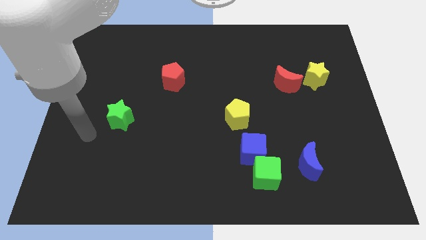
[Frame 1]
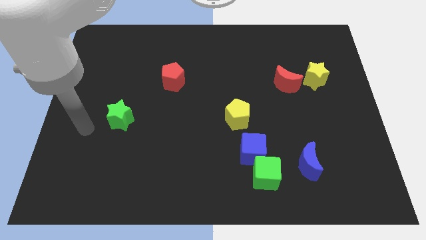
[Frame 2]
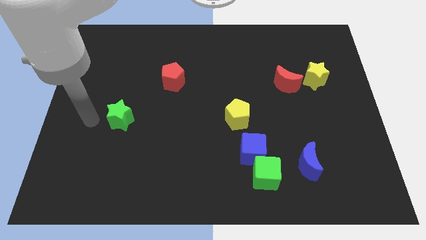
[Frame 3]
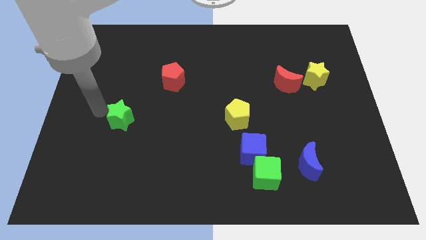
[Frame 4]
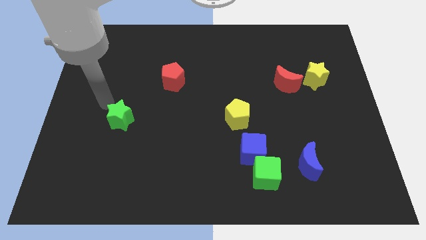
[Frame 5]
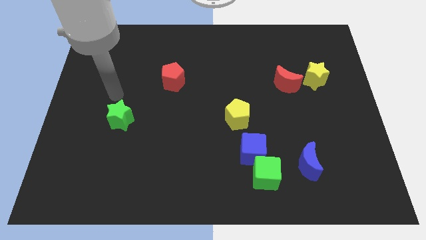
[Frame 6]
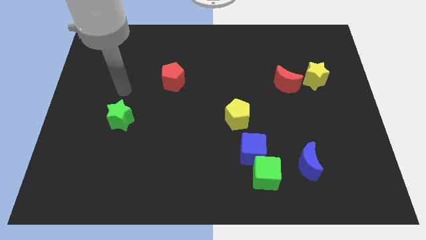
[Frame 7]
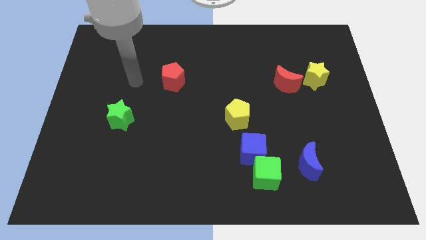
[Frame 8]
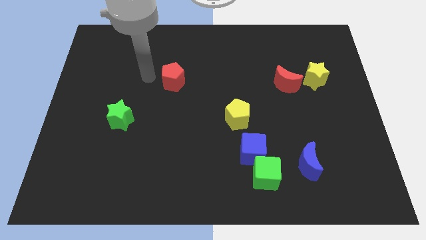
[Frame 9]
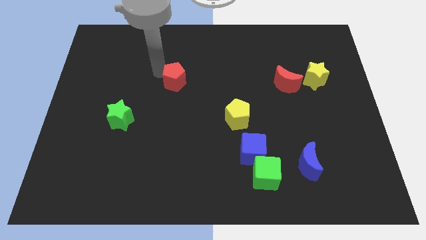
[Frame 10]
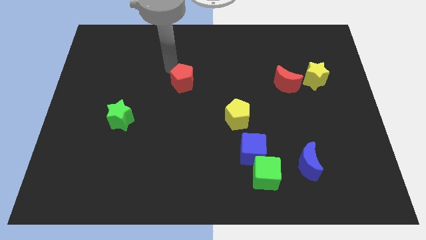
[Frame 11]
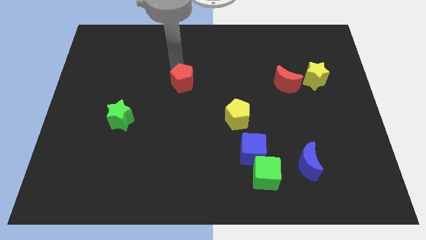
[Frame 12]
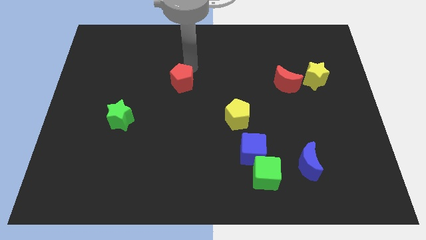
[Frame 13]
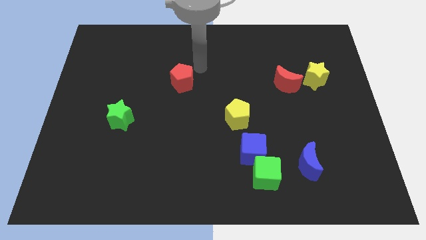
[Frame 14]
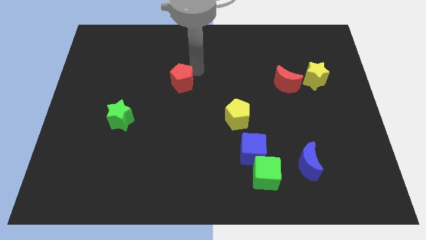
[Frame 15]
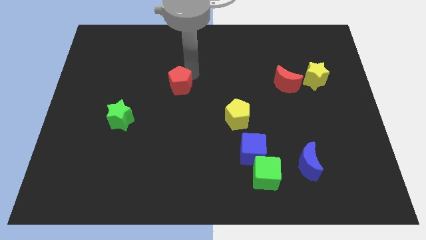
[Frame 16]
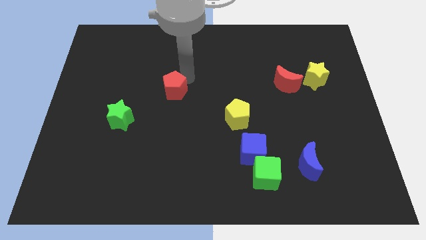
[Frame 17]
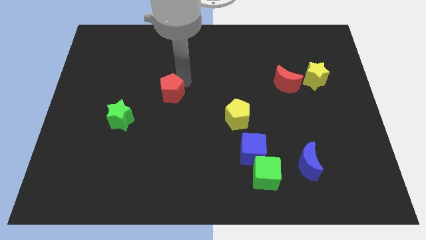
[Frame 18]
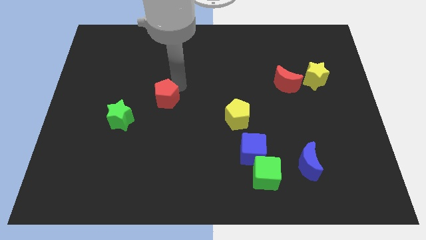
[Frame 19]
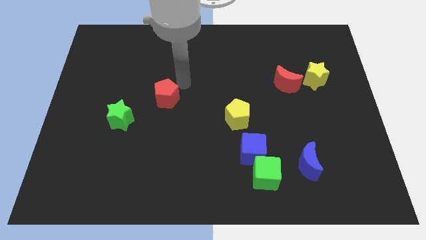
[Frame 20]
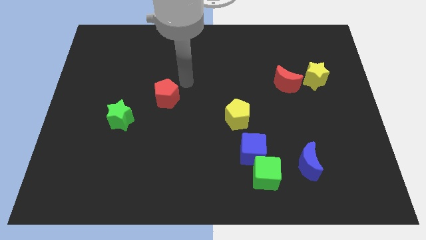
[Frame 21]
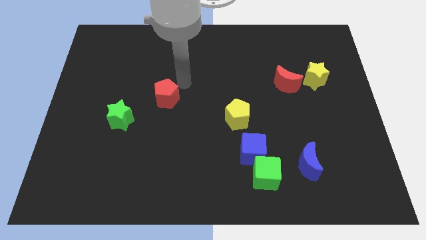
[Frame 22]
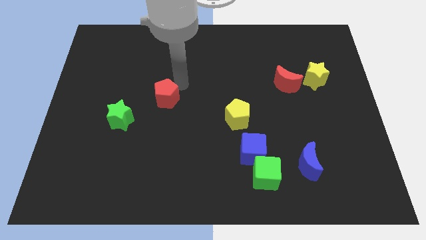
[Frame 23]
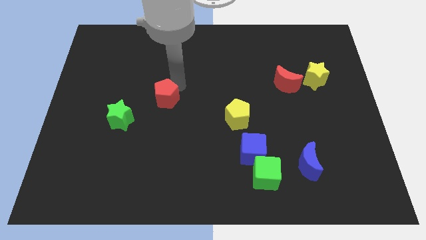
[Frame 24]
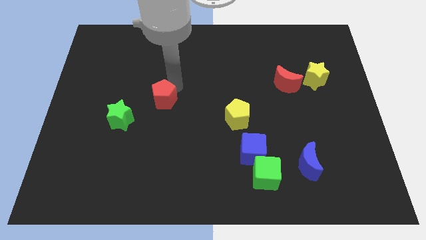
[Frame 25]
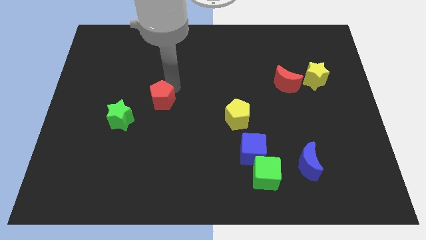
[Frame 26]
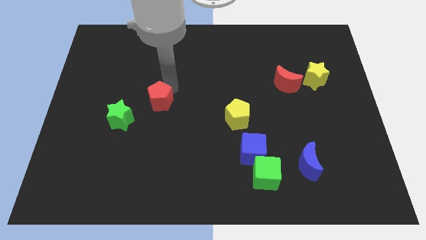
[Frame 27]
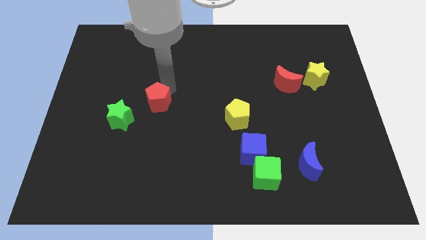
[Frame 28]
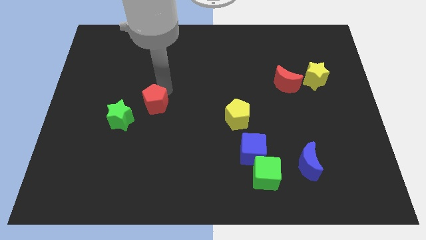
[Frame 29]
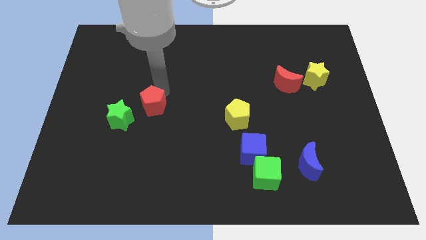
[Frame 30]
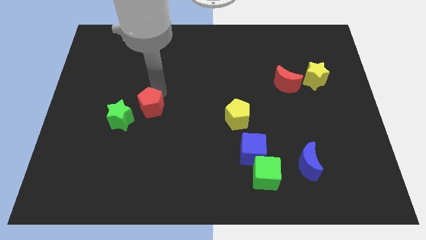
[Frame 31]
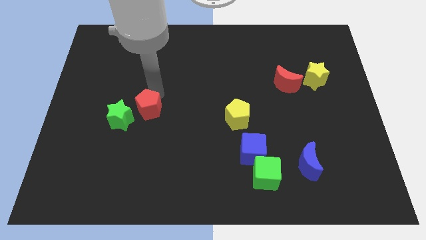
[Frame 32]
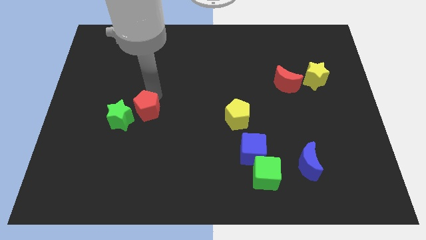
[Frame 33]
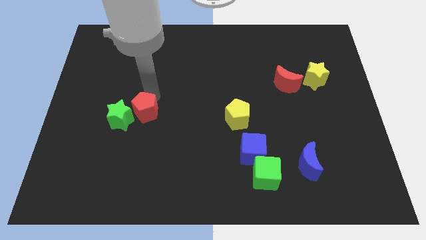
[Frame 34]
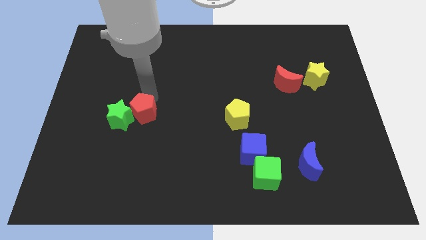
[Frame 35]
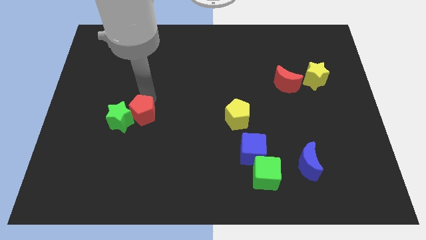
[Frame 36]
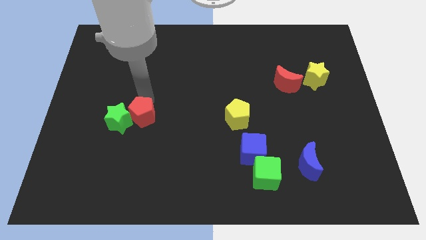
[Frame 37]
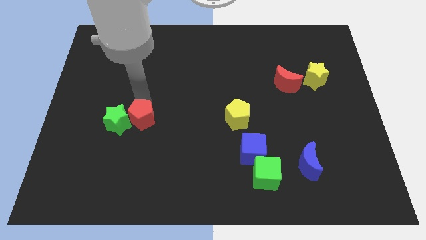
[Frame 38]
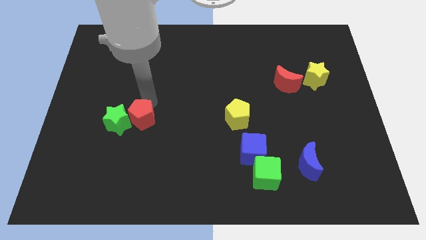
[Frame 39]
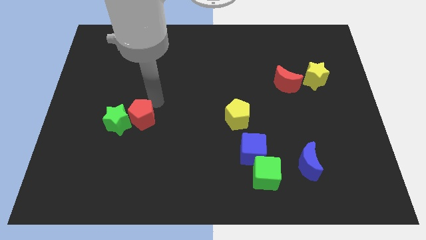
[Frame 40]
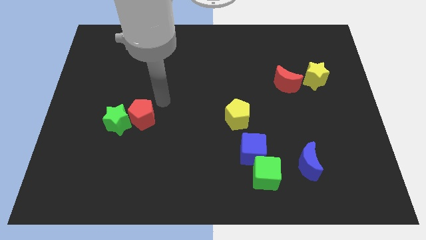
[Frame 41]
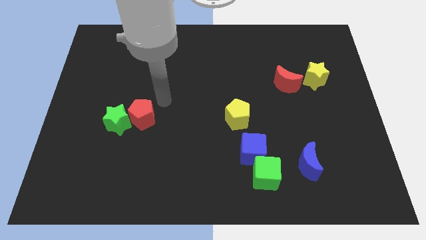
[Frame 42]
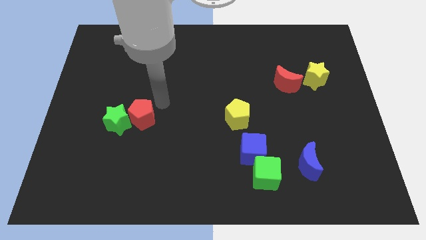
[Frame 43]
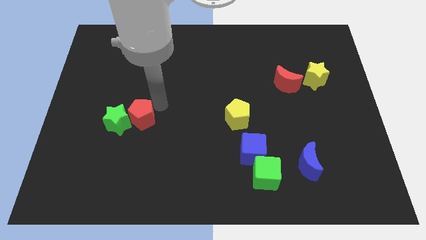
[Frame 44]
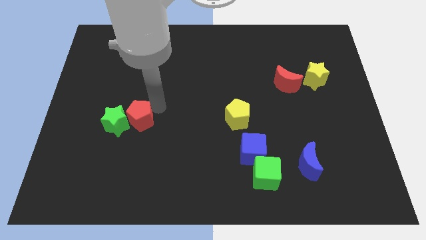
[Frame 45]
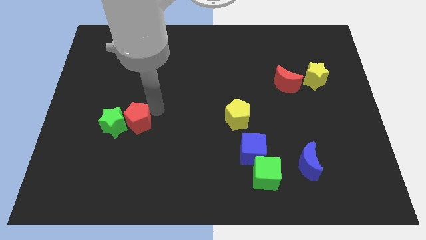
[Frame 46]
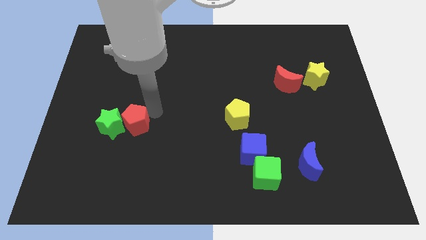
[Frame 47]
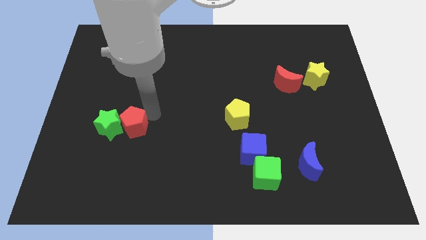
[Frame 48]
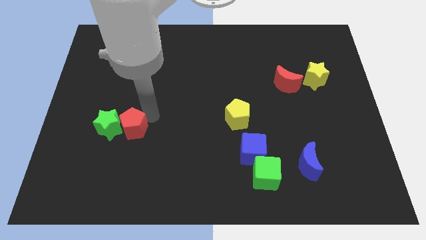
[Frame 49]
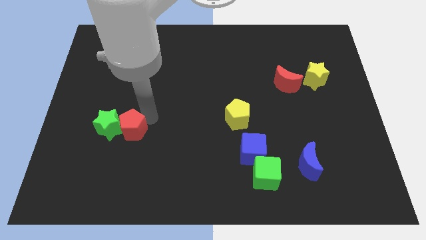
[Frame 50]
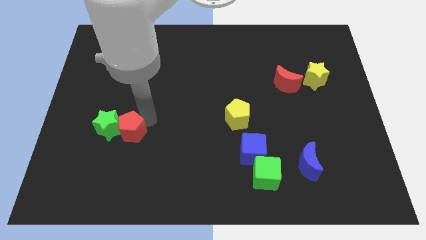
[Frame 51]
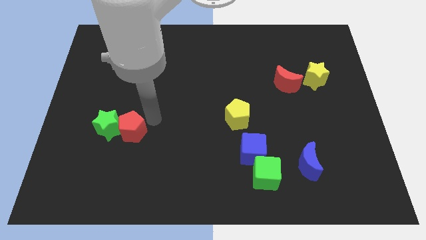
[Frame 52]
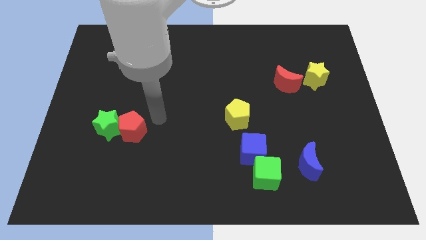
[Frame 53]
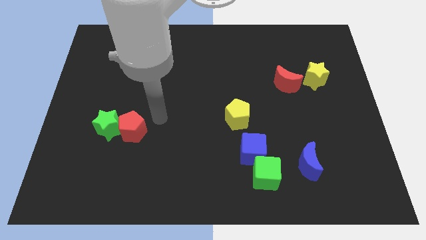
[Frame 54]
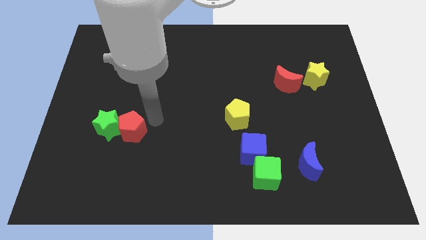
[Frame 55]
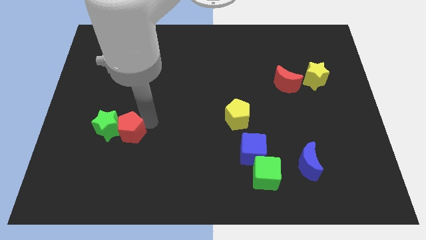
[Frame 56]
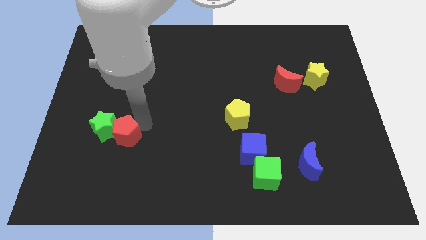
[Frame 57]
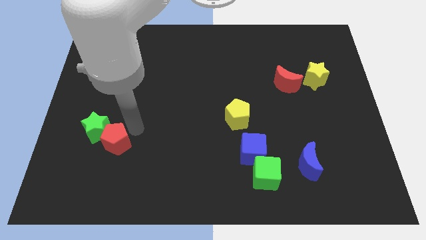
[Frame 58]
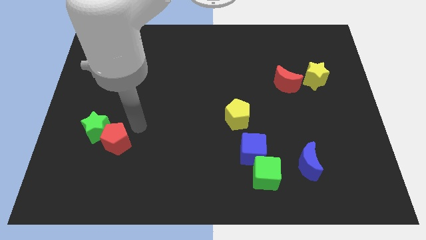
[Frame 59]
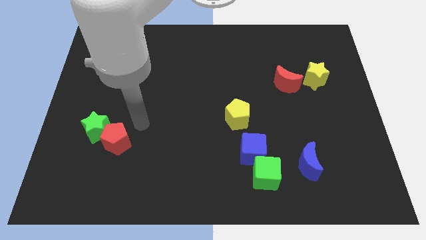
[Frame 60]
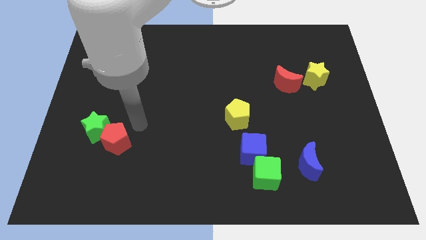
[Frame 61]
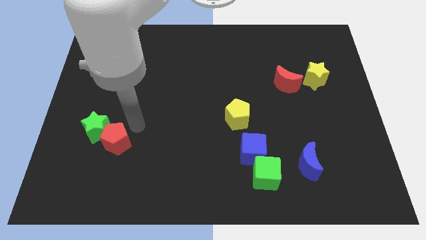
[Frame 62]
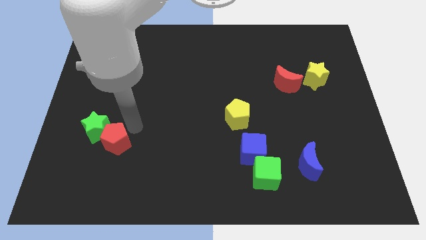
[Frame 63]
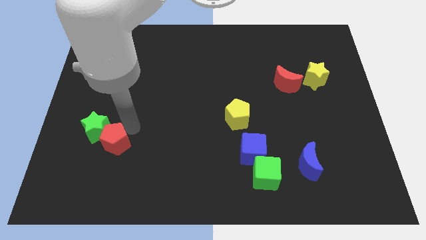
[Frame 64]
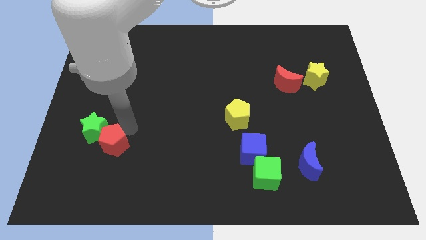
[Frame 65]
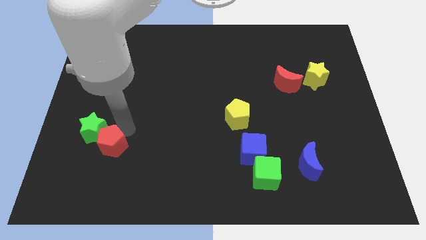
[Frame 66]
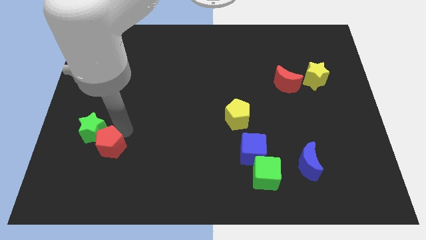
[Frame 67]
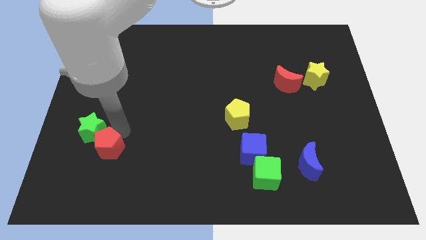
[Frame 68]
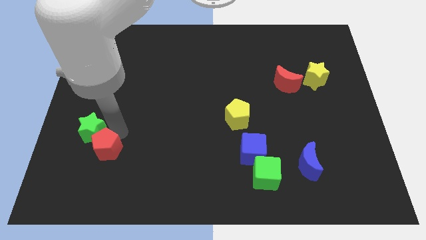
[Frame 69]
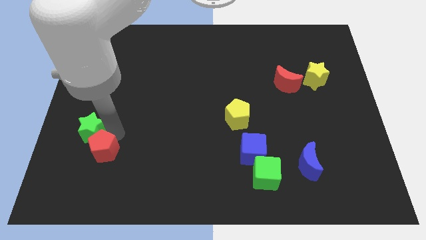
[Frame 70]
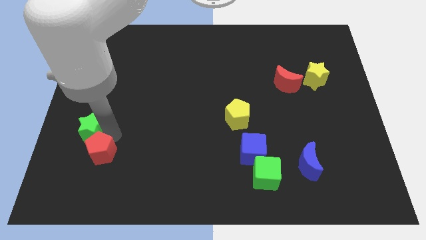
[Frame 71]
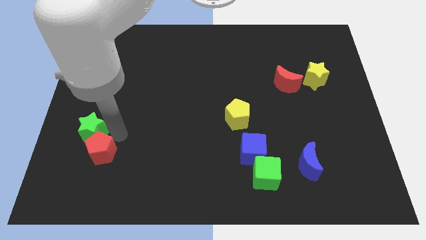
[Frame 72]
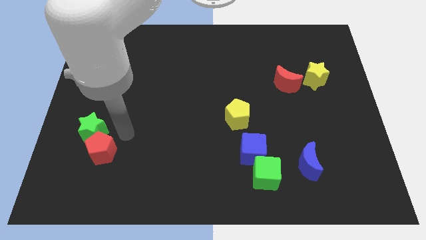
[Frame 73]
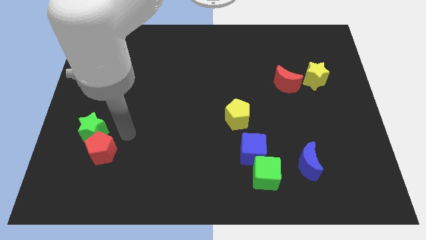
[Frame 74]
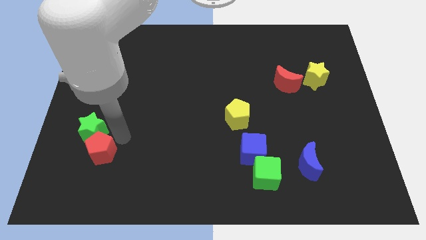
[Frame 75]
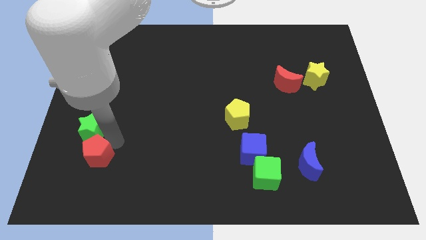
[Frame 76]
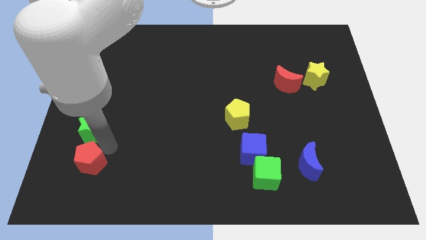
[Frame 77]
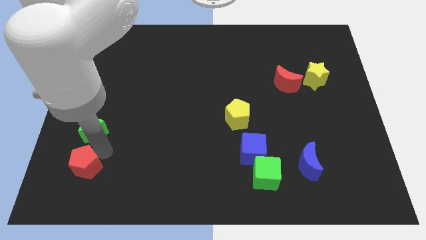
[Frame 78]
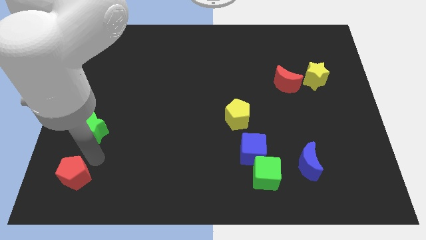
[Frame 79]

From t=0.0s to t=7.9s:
move the red pentagon to the lower left corner
